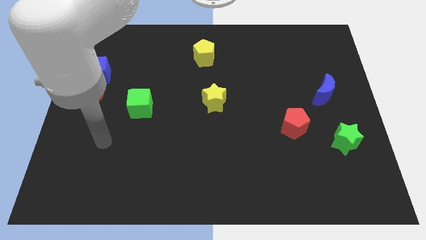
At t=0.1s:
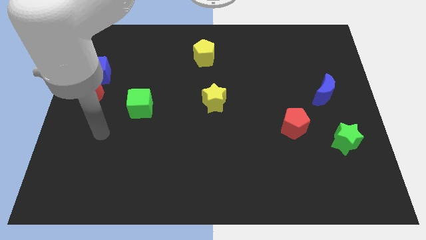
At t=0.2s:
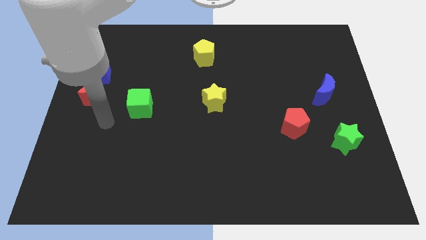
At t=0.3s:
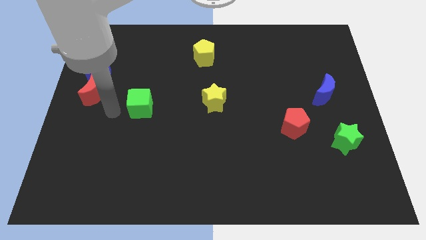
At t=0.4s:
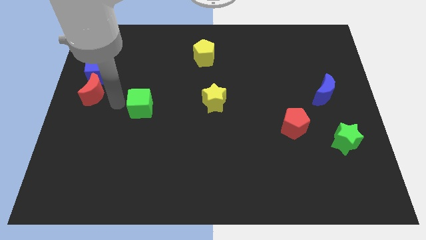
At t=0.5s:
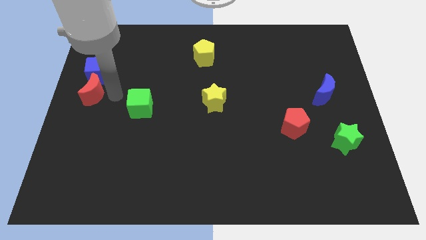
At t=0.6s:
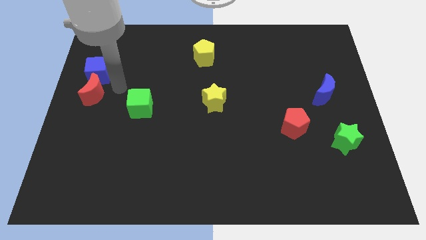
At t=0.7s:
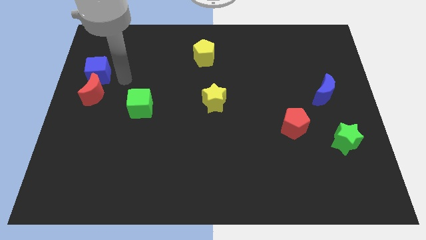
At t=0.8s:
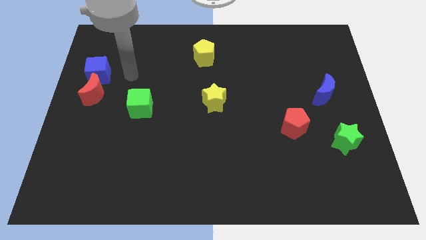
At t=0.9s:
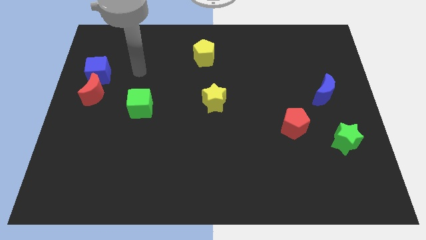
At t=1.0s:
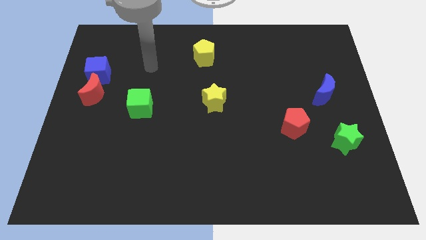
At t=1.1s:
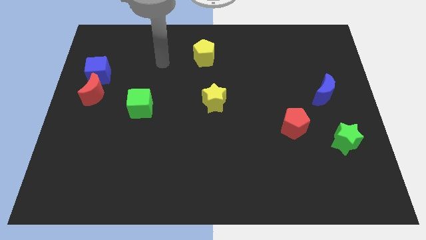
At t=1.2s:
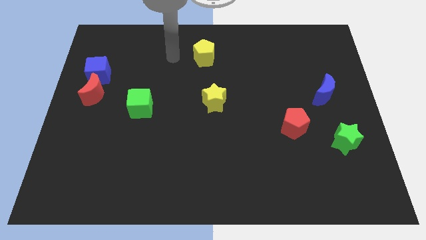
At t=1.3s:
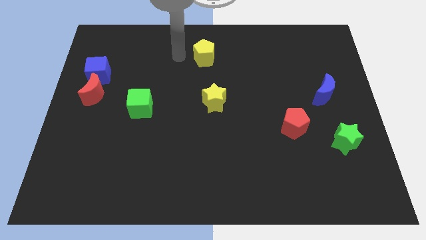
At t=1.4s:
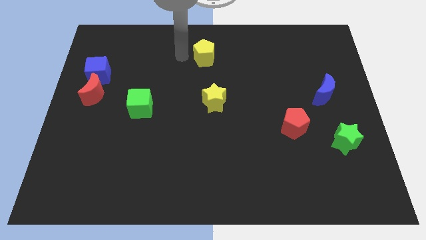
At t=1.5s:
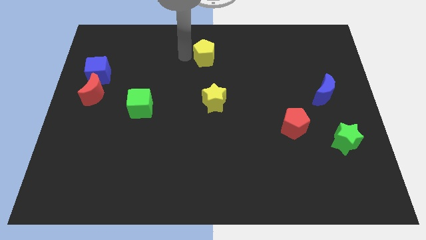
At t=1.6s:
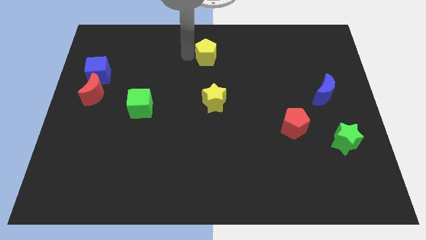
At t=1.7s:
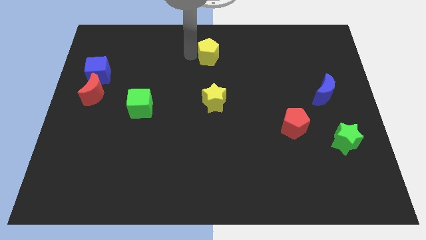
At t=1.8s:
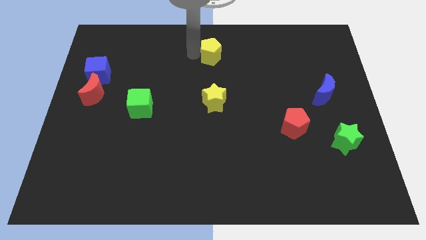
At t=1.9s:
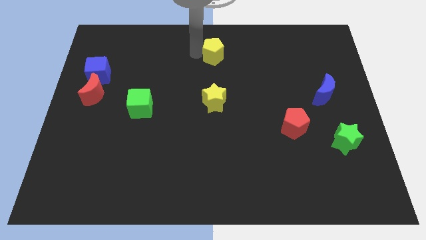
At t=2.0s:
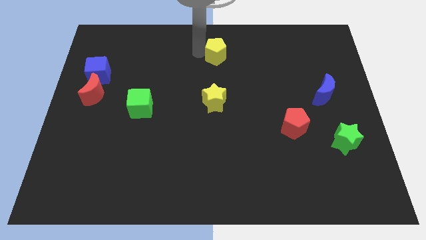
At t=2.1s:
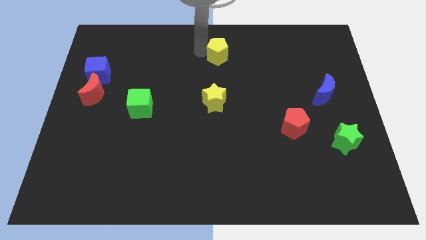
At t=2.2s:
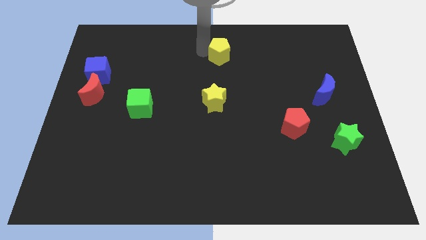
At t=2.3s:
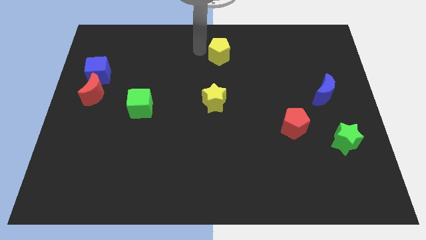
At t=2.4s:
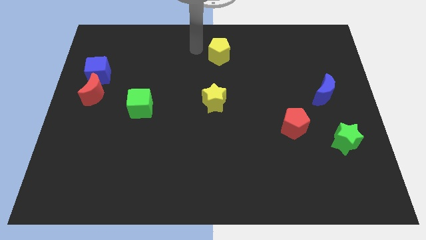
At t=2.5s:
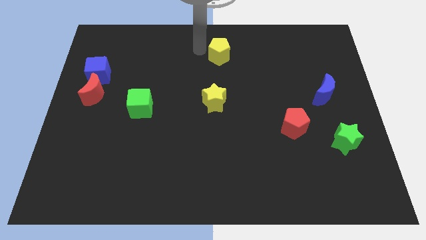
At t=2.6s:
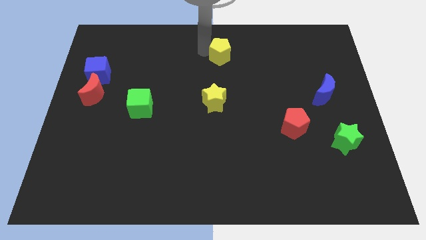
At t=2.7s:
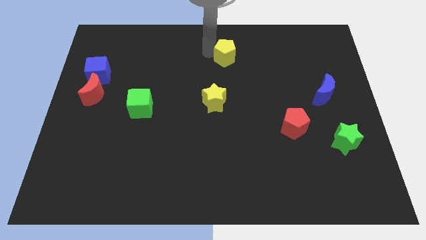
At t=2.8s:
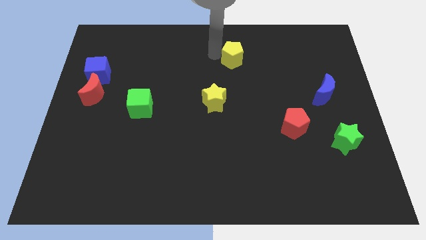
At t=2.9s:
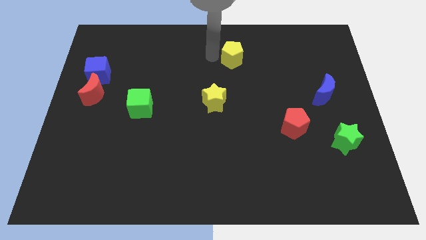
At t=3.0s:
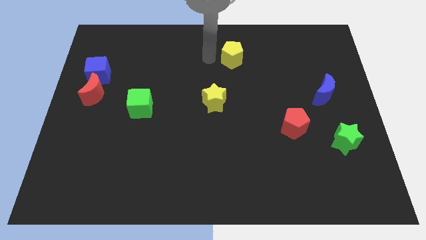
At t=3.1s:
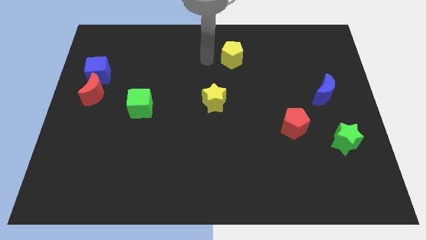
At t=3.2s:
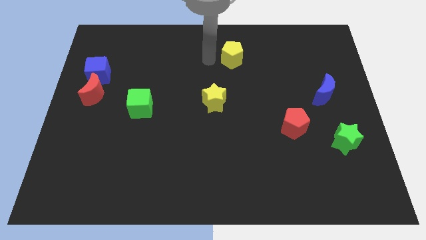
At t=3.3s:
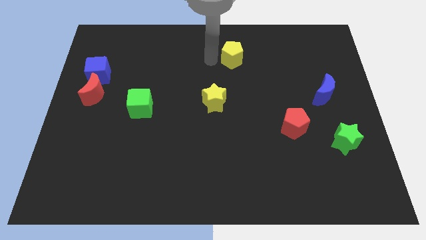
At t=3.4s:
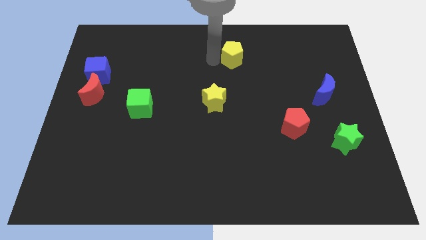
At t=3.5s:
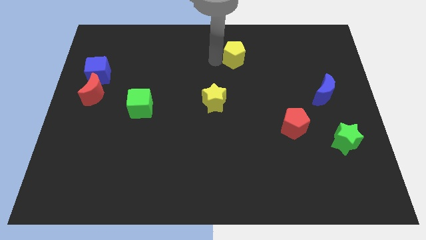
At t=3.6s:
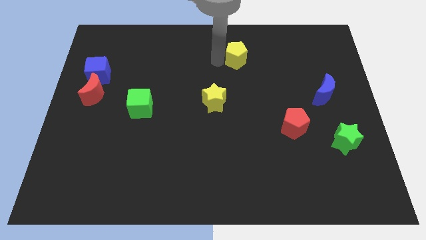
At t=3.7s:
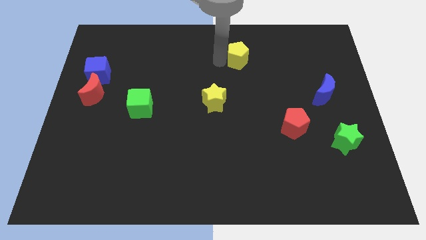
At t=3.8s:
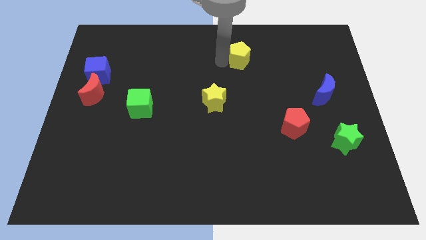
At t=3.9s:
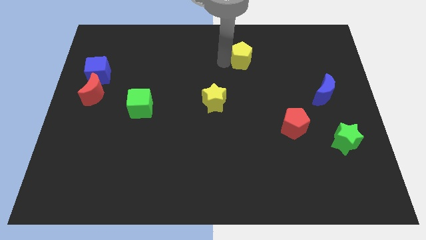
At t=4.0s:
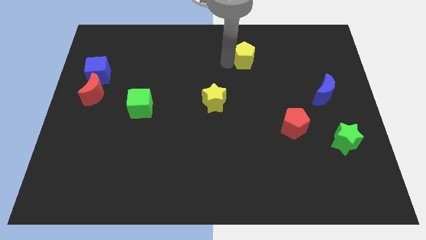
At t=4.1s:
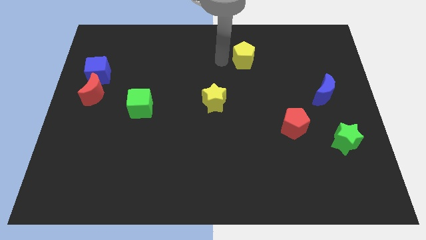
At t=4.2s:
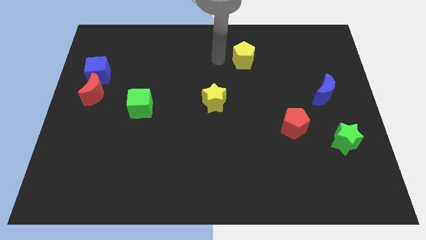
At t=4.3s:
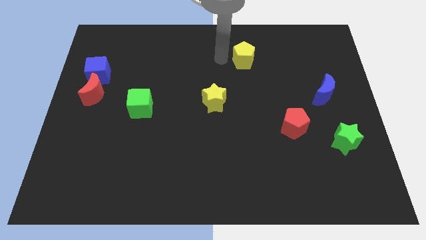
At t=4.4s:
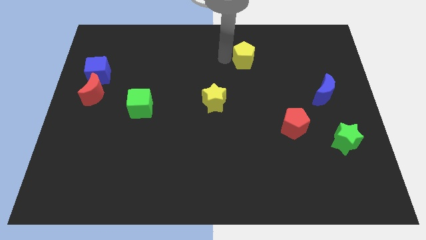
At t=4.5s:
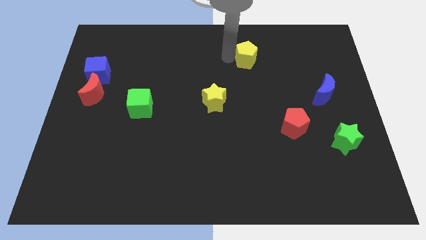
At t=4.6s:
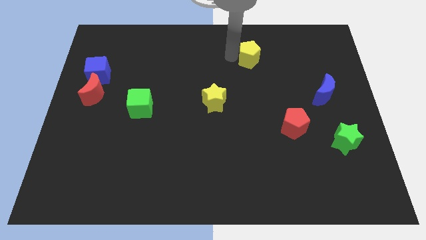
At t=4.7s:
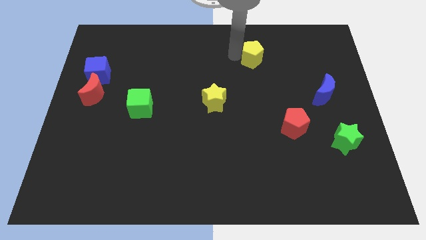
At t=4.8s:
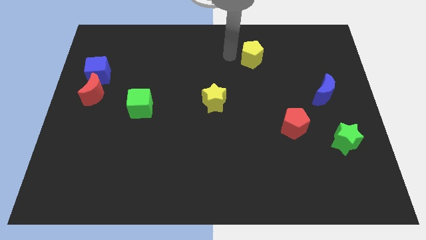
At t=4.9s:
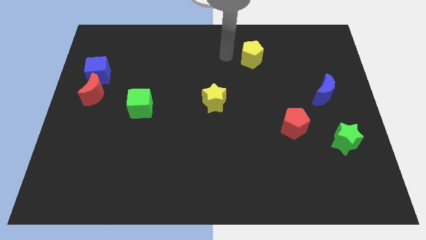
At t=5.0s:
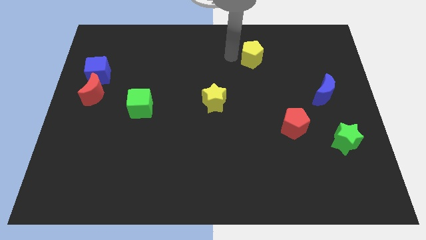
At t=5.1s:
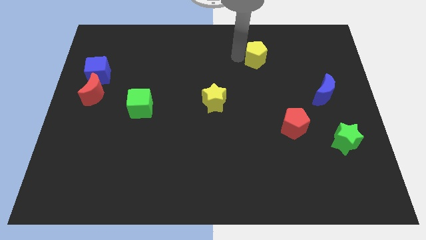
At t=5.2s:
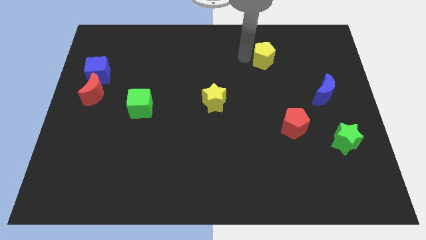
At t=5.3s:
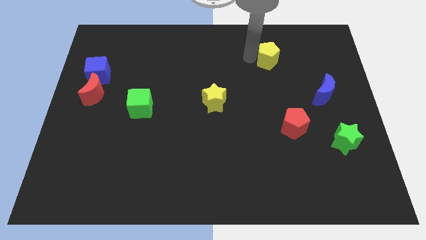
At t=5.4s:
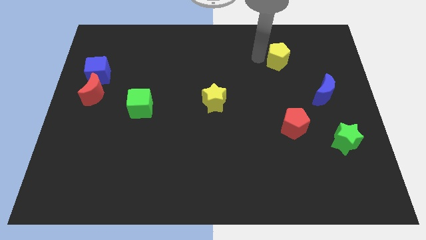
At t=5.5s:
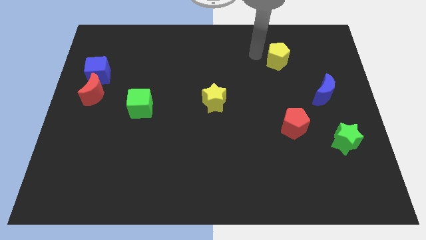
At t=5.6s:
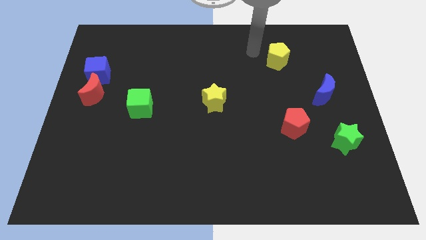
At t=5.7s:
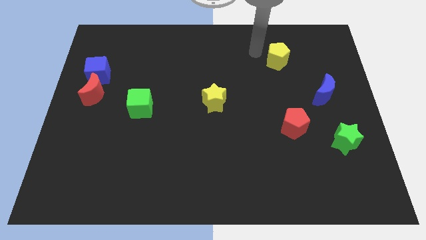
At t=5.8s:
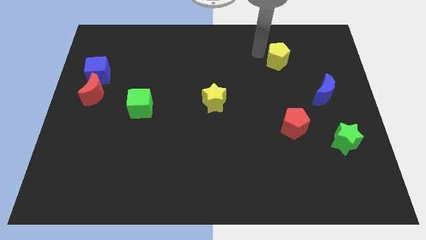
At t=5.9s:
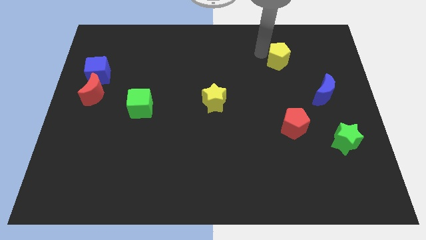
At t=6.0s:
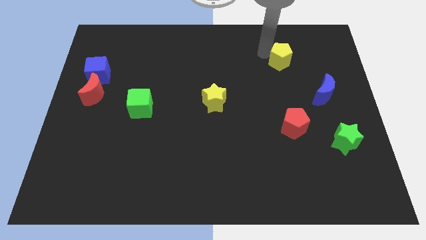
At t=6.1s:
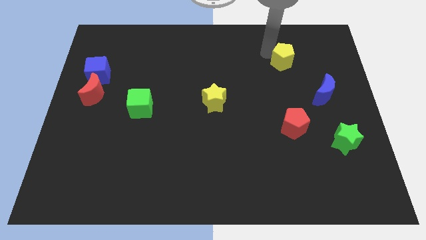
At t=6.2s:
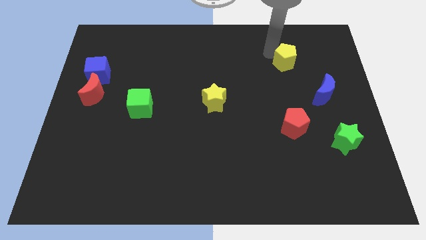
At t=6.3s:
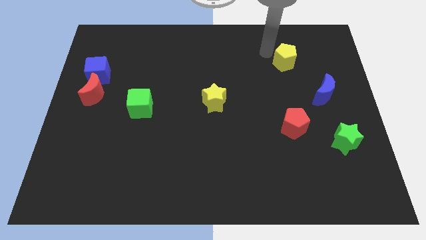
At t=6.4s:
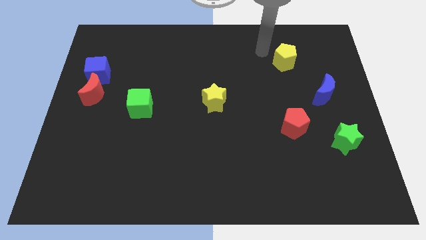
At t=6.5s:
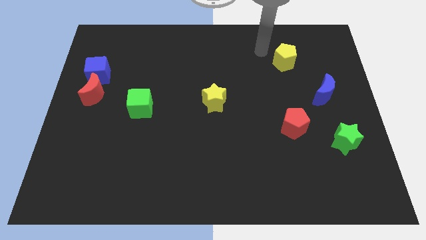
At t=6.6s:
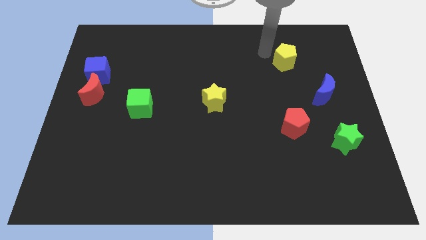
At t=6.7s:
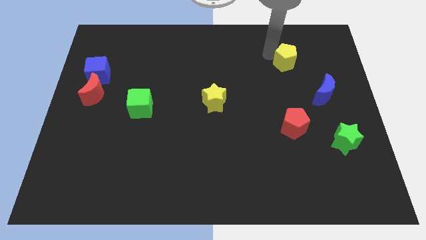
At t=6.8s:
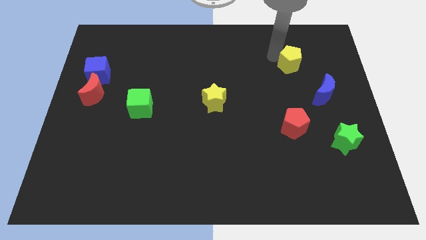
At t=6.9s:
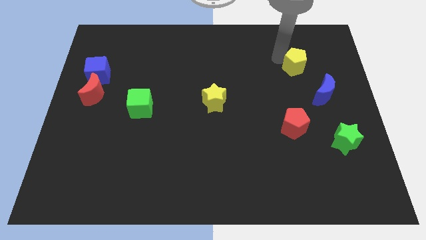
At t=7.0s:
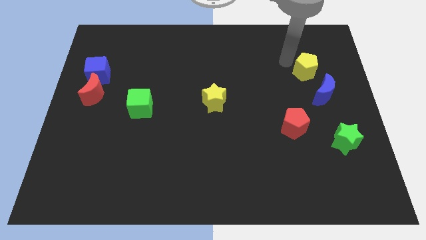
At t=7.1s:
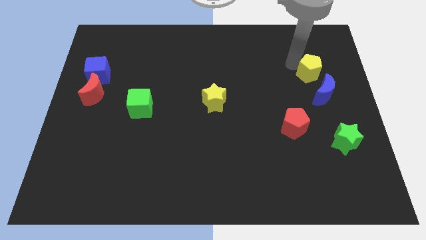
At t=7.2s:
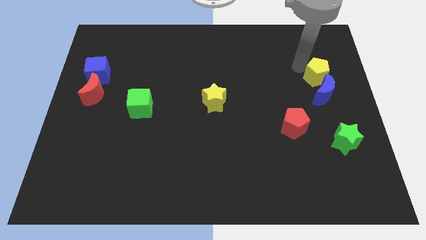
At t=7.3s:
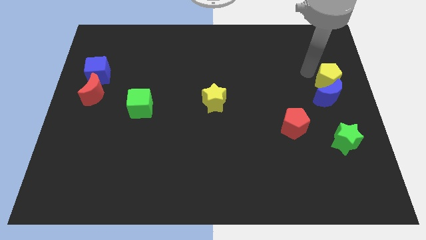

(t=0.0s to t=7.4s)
move the yellow pentagon to the right side of the board
